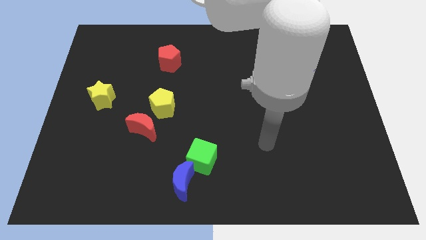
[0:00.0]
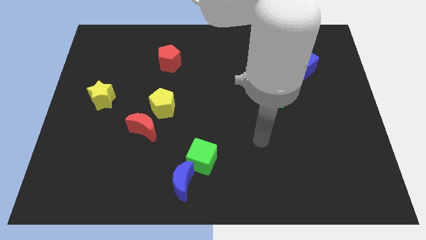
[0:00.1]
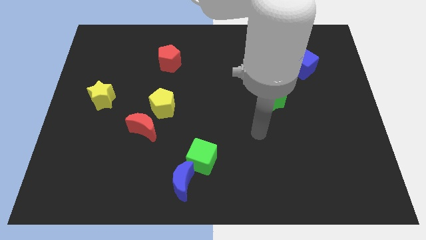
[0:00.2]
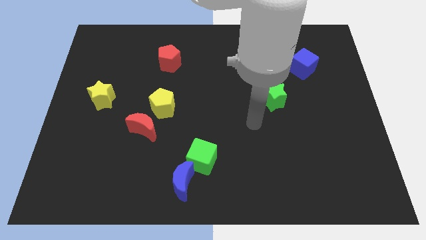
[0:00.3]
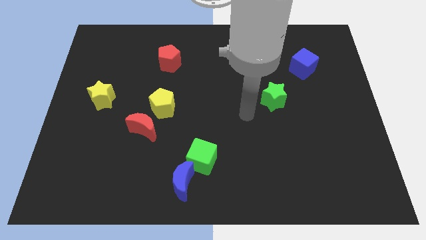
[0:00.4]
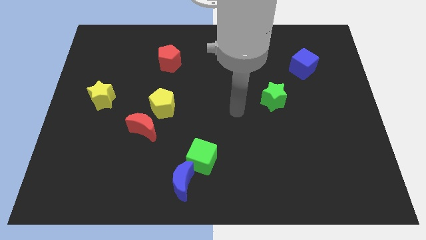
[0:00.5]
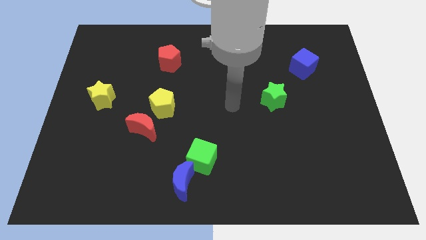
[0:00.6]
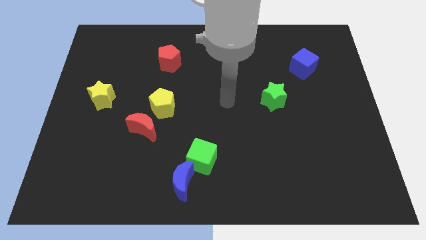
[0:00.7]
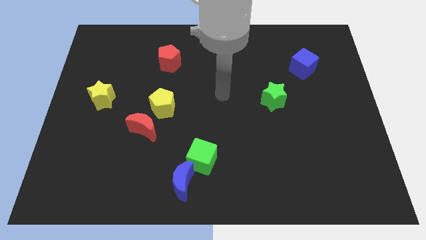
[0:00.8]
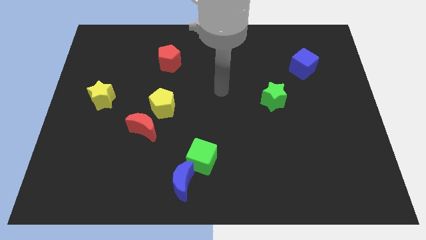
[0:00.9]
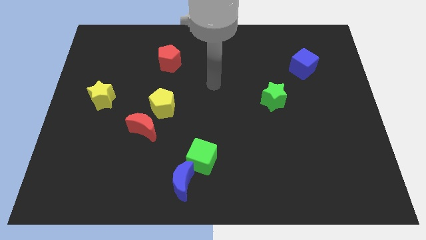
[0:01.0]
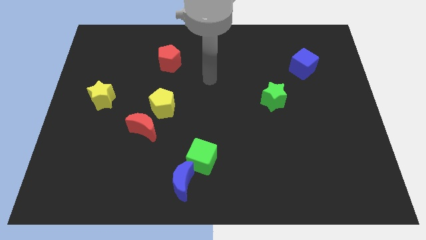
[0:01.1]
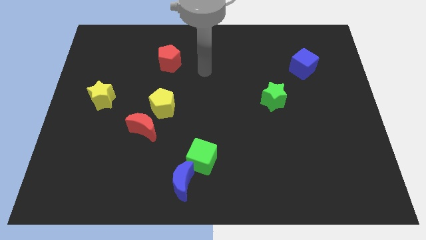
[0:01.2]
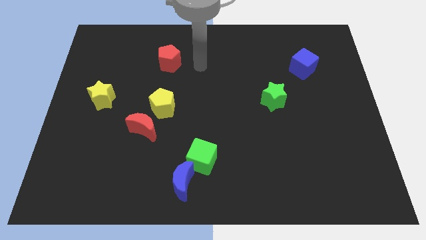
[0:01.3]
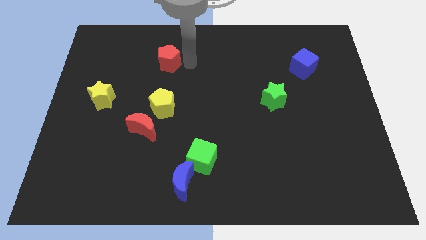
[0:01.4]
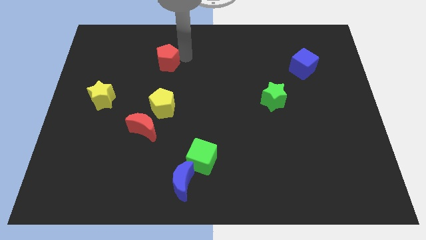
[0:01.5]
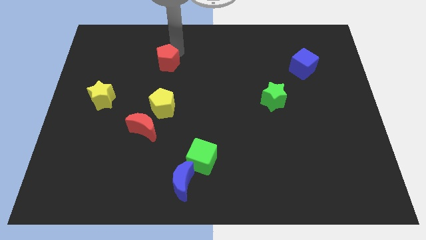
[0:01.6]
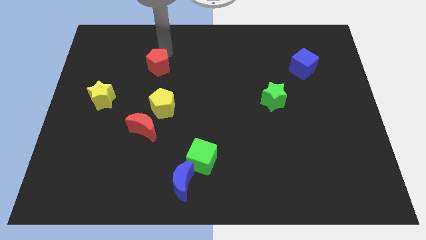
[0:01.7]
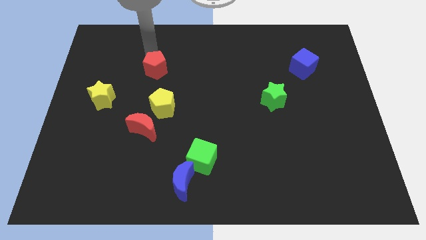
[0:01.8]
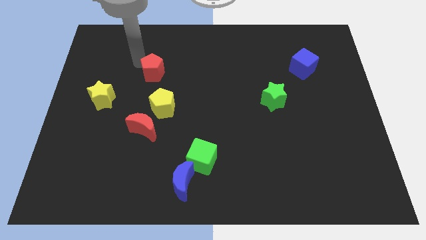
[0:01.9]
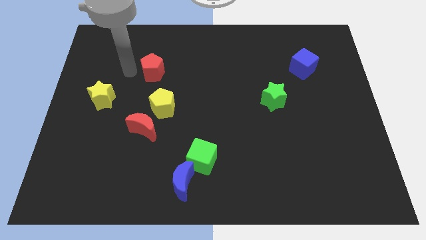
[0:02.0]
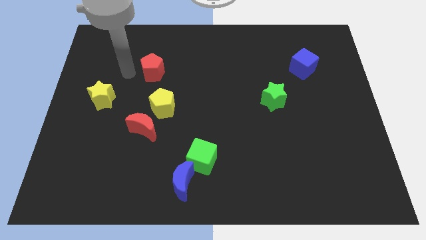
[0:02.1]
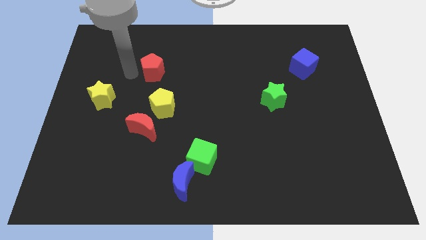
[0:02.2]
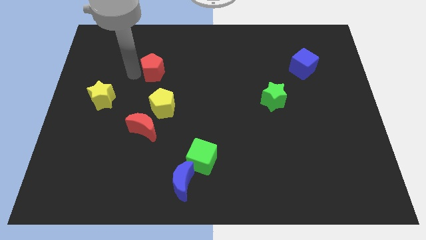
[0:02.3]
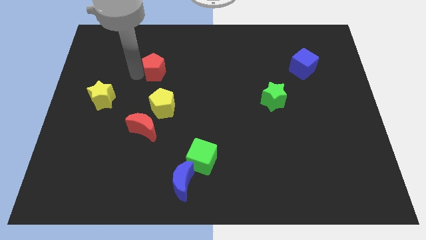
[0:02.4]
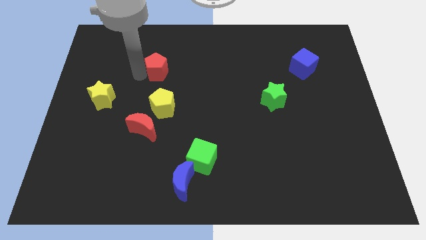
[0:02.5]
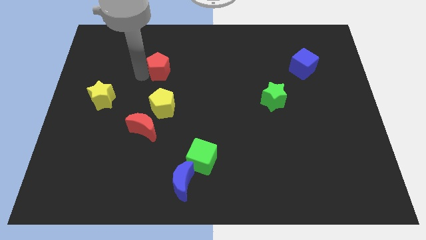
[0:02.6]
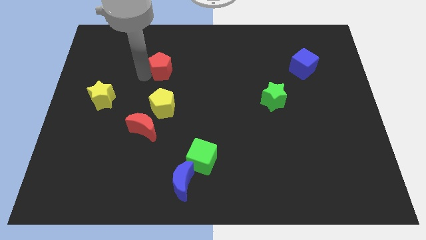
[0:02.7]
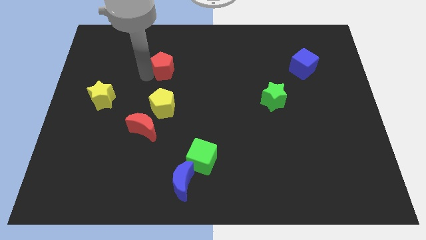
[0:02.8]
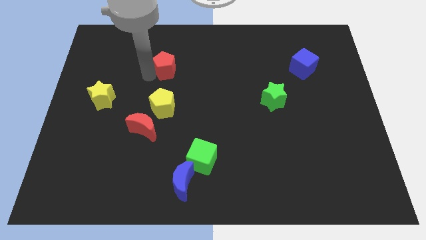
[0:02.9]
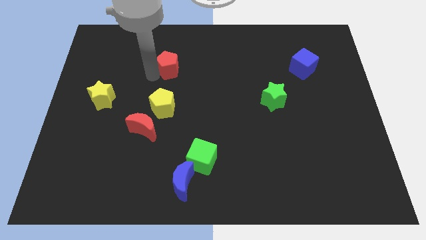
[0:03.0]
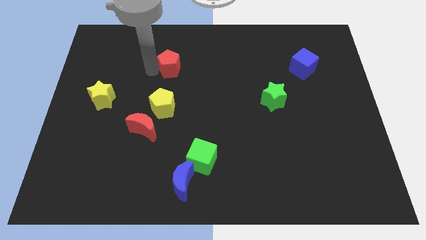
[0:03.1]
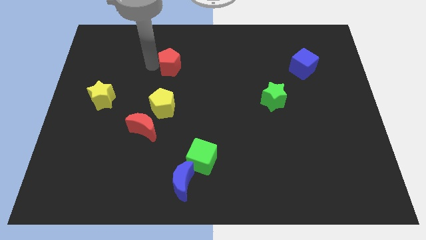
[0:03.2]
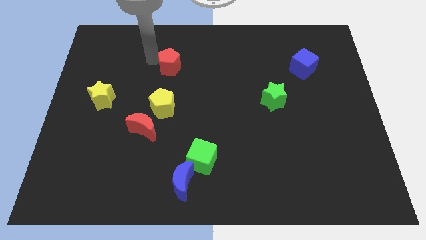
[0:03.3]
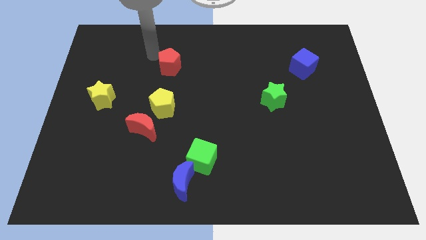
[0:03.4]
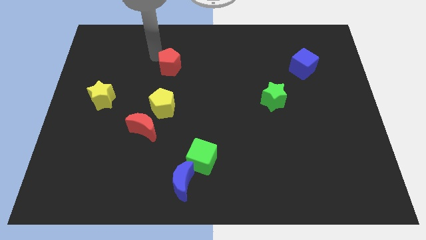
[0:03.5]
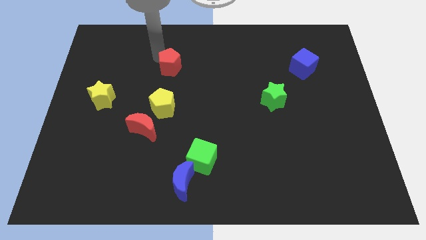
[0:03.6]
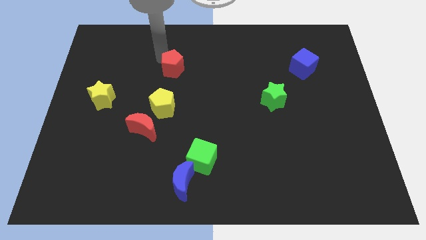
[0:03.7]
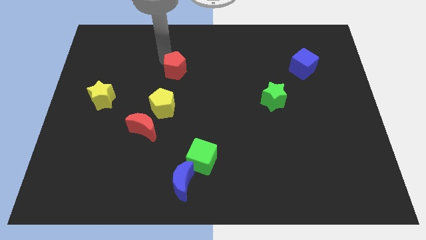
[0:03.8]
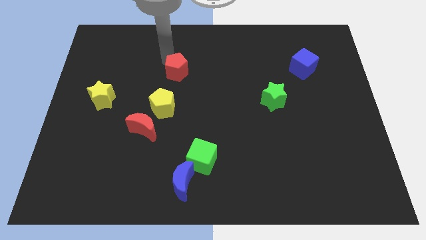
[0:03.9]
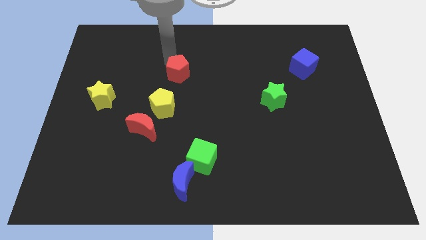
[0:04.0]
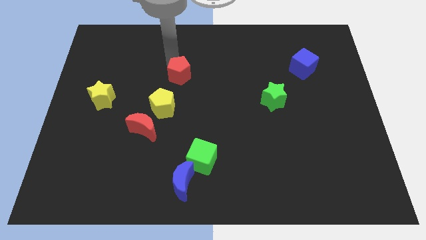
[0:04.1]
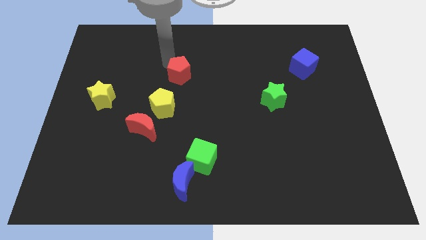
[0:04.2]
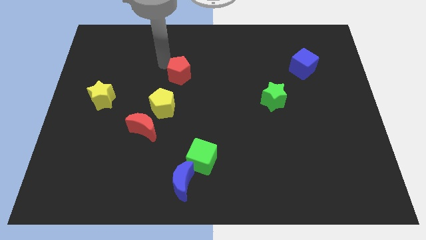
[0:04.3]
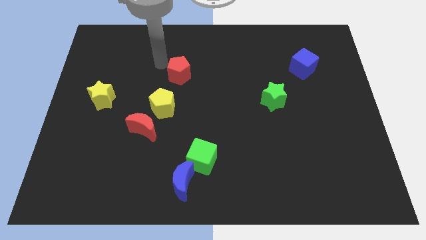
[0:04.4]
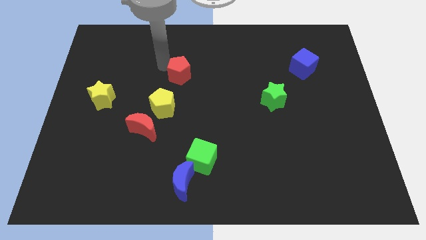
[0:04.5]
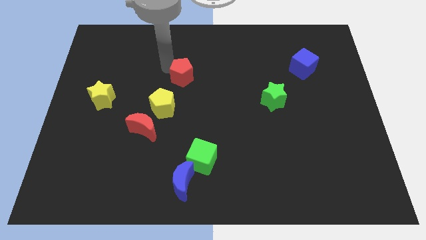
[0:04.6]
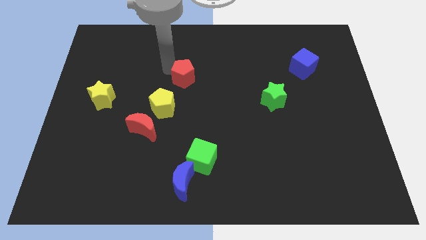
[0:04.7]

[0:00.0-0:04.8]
push the red pentagon downwards and then right a little bit

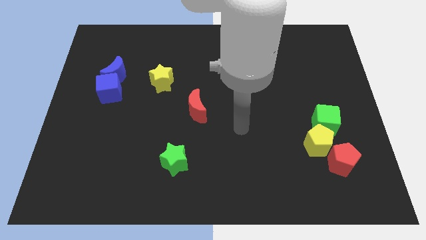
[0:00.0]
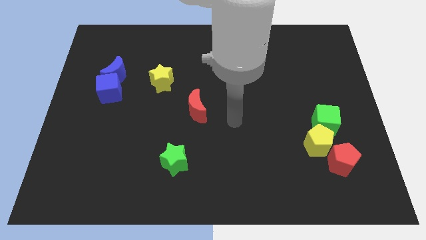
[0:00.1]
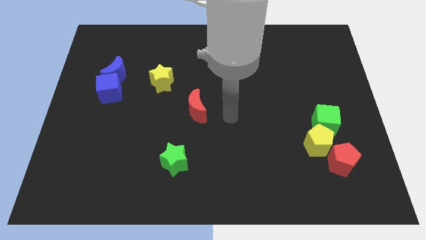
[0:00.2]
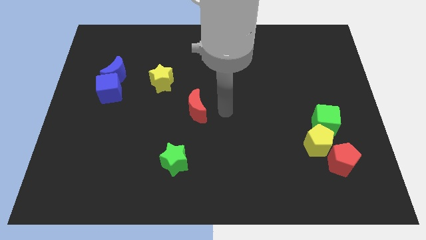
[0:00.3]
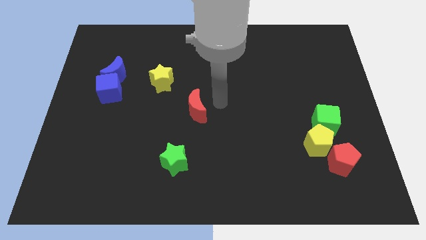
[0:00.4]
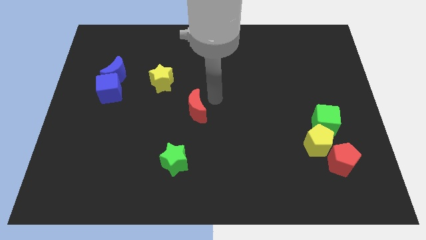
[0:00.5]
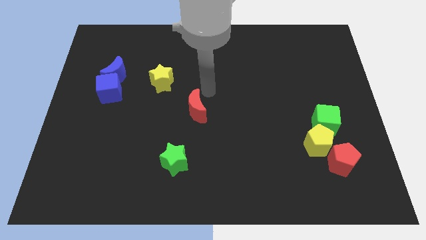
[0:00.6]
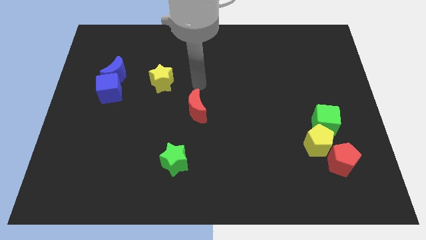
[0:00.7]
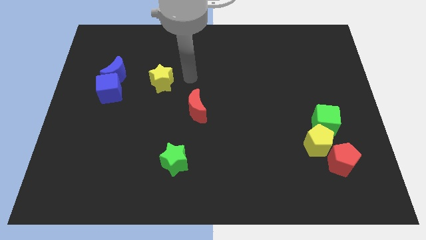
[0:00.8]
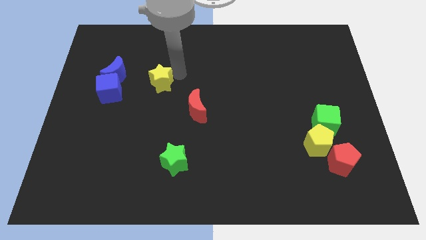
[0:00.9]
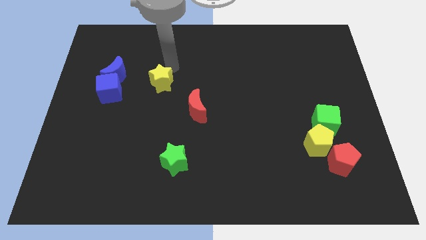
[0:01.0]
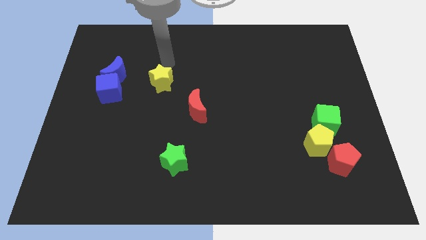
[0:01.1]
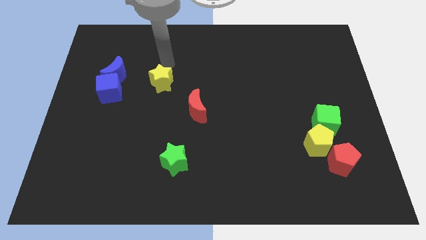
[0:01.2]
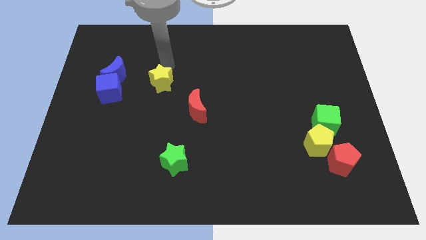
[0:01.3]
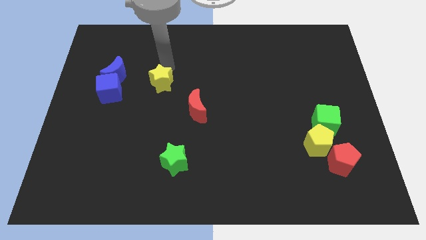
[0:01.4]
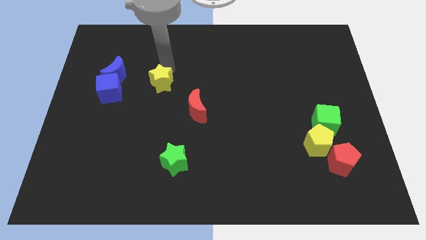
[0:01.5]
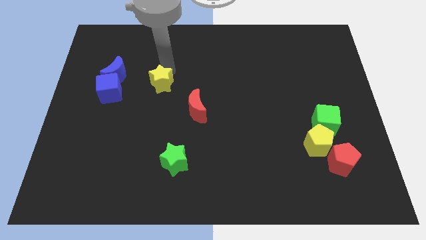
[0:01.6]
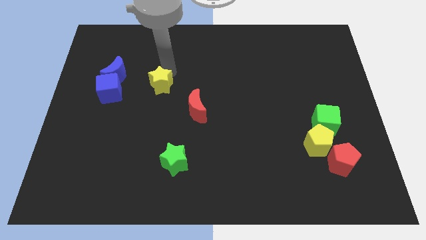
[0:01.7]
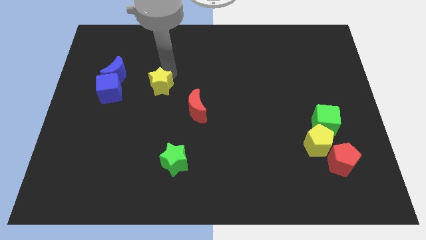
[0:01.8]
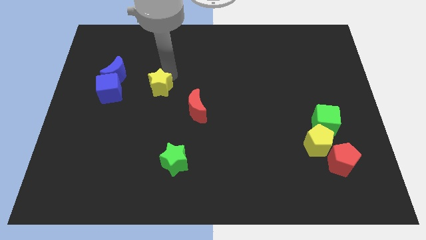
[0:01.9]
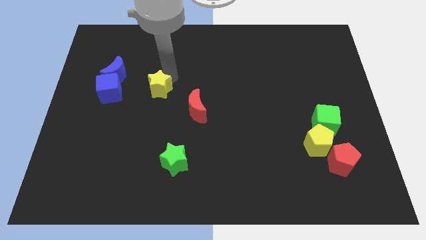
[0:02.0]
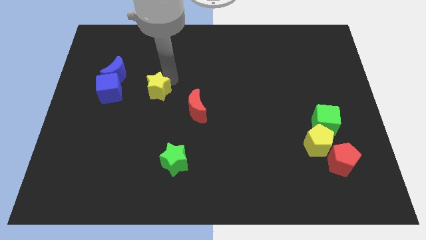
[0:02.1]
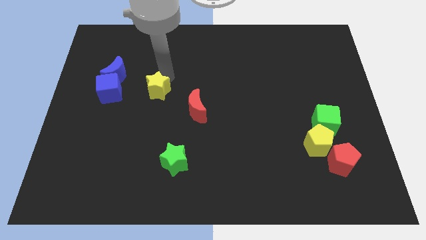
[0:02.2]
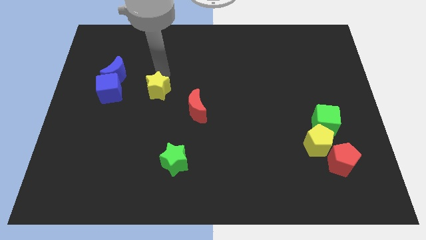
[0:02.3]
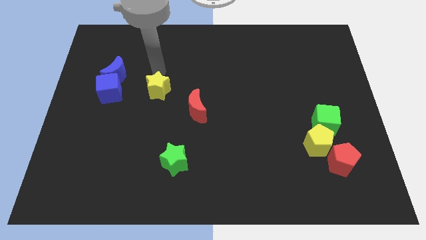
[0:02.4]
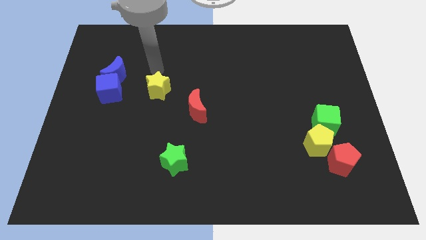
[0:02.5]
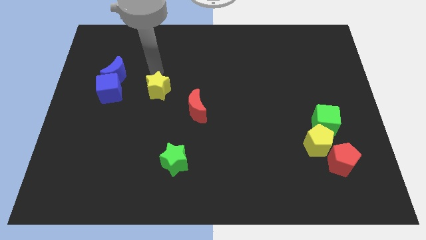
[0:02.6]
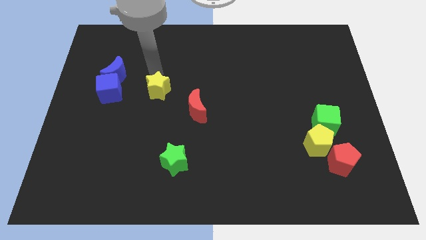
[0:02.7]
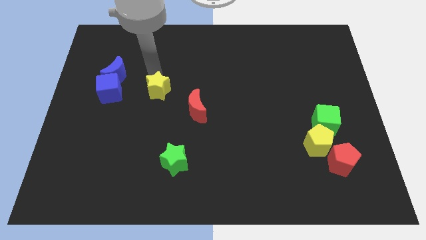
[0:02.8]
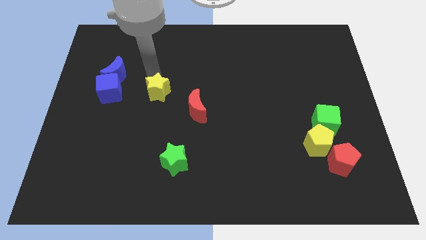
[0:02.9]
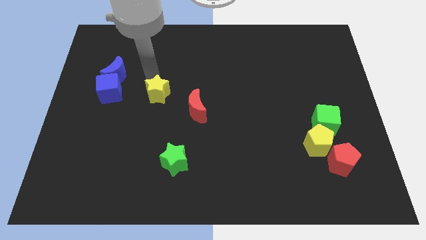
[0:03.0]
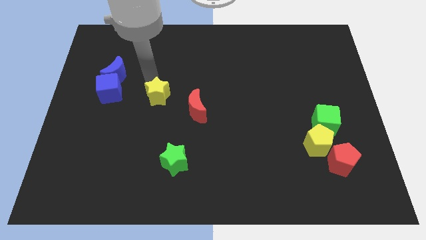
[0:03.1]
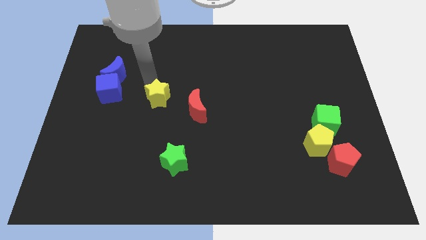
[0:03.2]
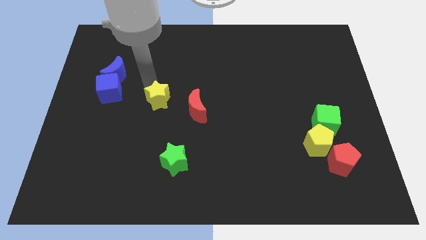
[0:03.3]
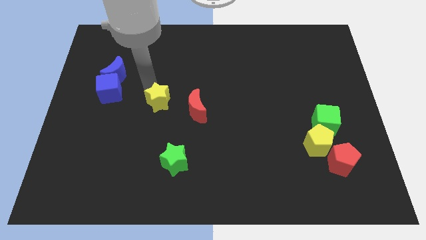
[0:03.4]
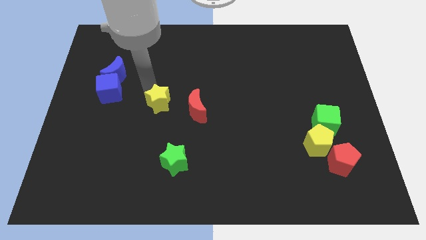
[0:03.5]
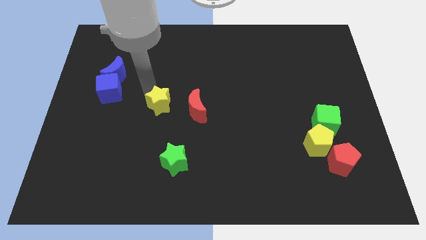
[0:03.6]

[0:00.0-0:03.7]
slightly slide the yellow star downwards
